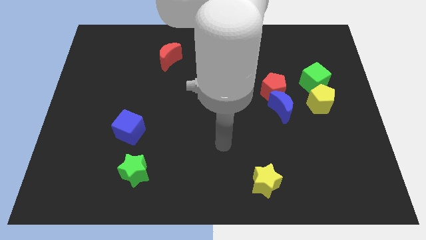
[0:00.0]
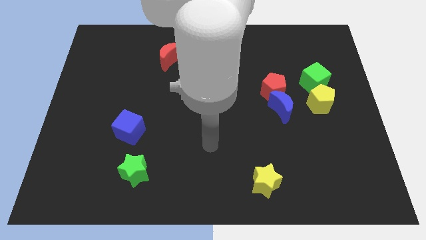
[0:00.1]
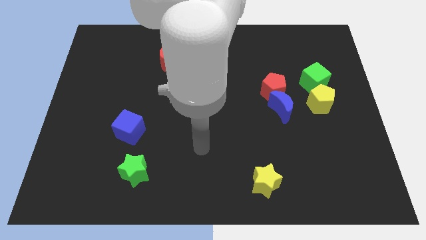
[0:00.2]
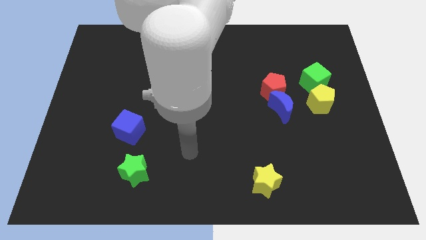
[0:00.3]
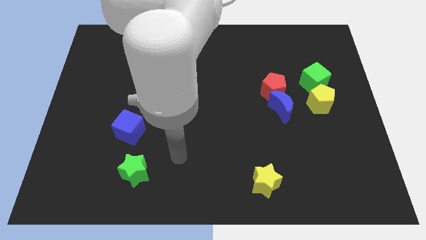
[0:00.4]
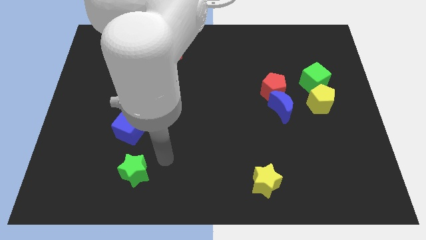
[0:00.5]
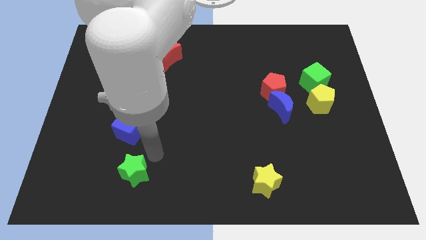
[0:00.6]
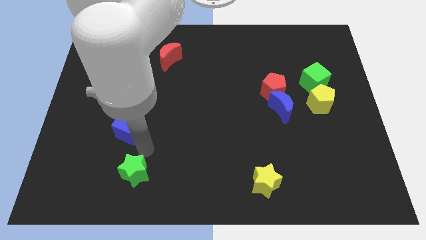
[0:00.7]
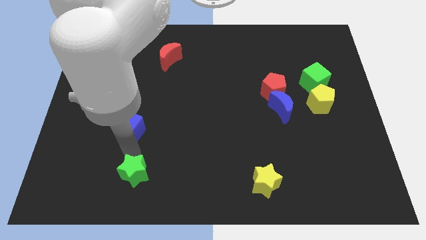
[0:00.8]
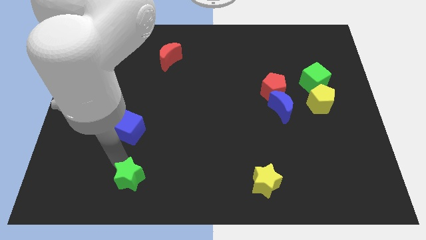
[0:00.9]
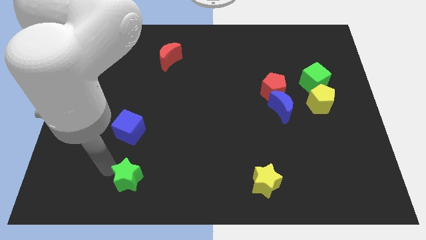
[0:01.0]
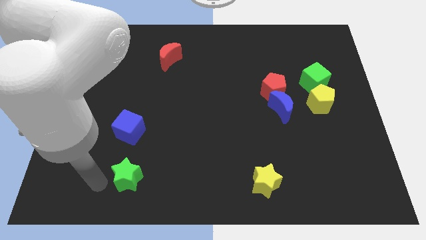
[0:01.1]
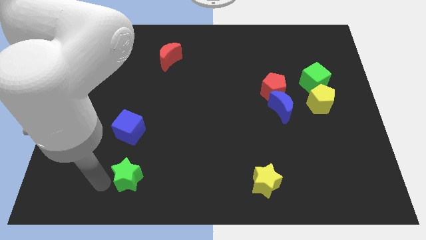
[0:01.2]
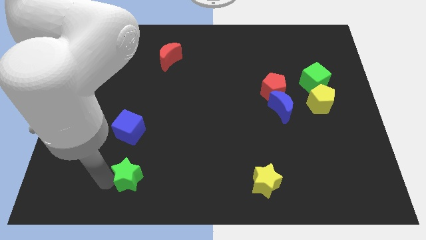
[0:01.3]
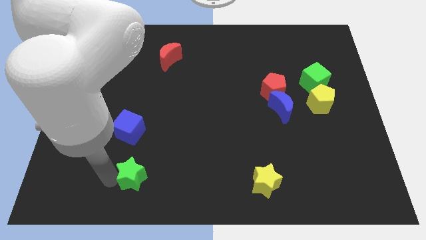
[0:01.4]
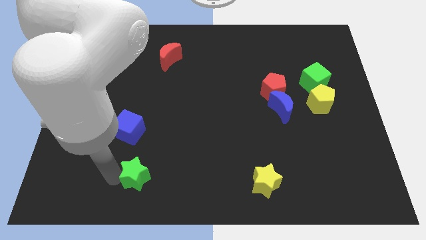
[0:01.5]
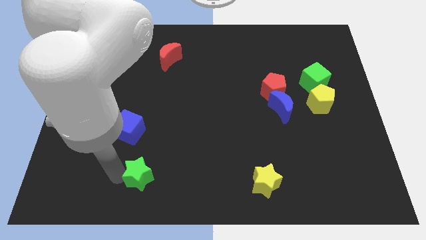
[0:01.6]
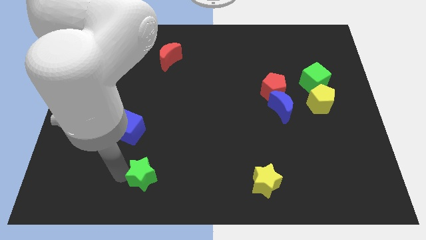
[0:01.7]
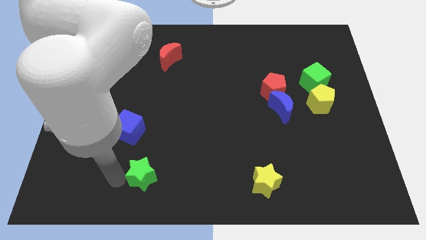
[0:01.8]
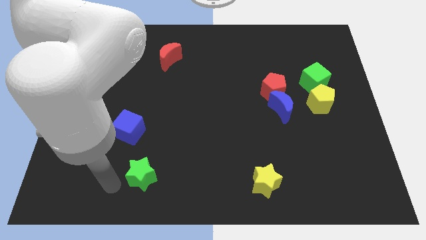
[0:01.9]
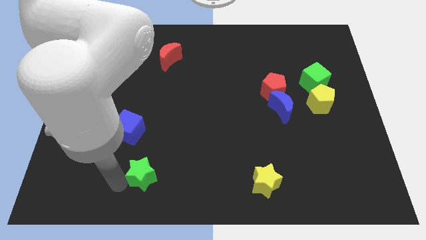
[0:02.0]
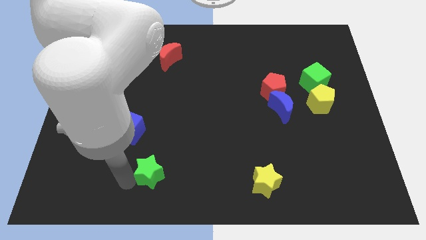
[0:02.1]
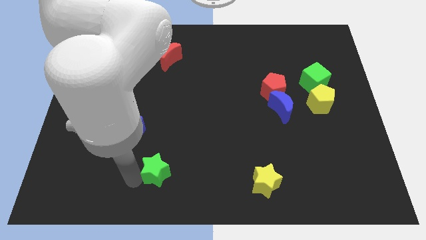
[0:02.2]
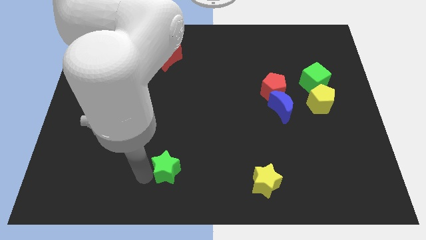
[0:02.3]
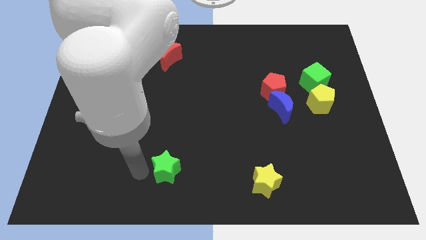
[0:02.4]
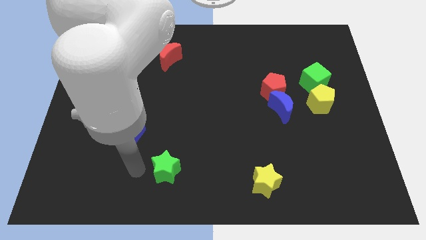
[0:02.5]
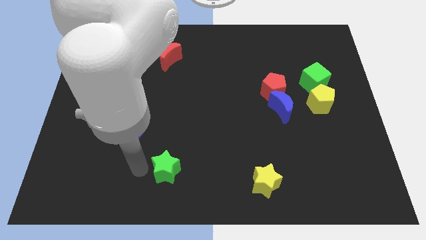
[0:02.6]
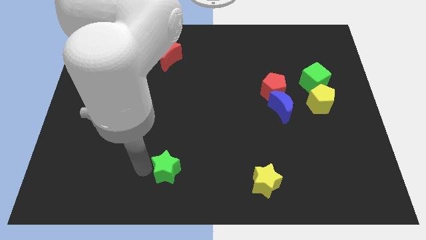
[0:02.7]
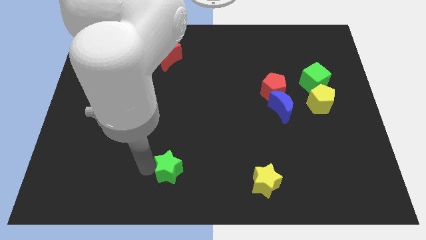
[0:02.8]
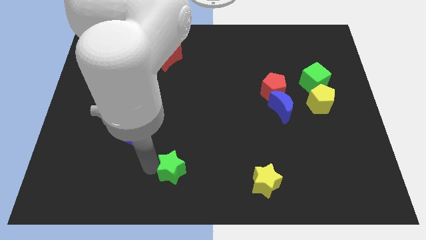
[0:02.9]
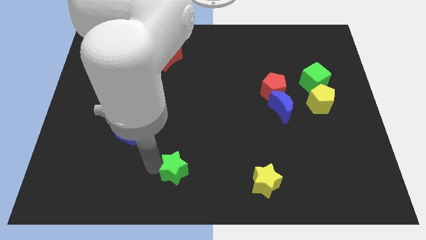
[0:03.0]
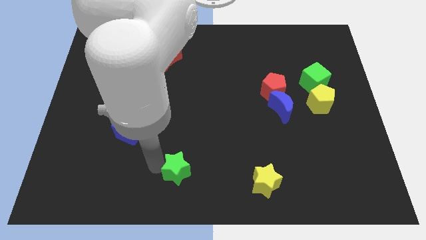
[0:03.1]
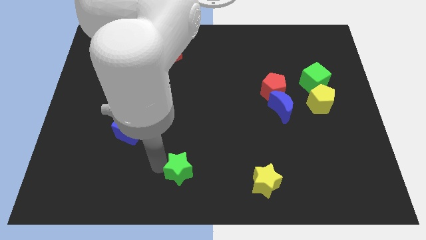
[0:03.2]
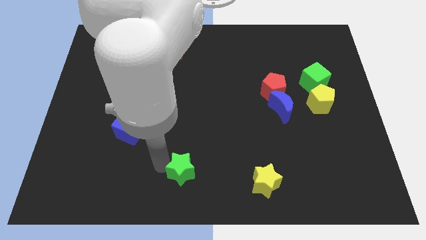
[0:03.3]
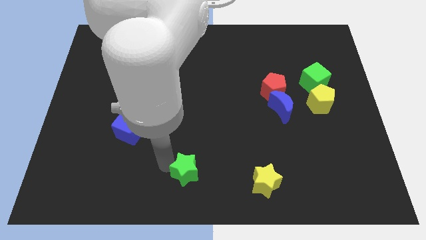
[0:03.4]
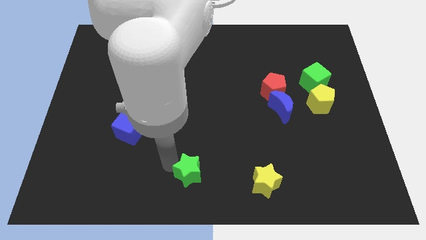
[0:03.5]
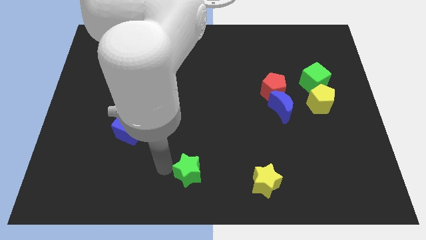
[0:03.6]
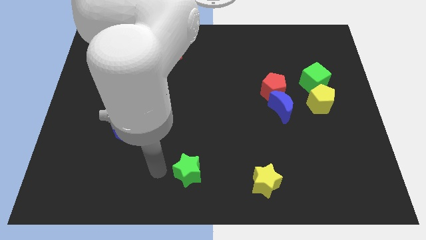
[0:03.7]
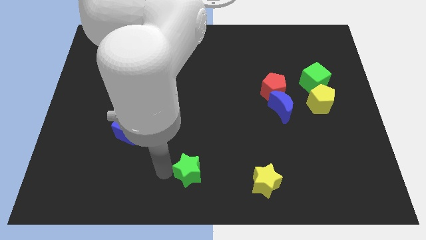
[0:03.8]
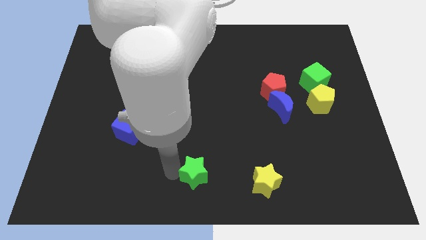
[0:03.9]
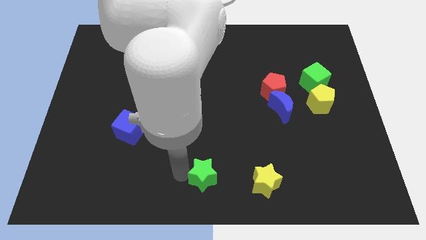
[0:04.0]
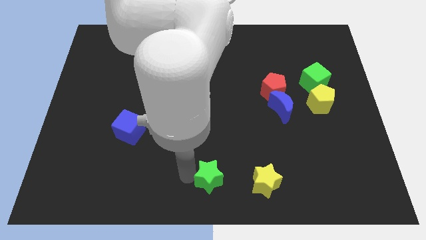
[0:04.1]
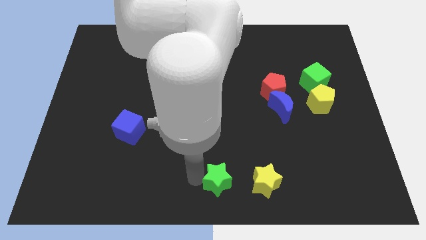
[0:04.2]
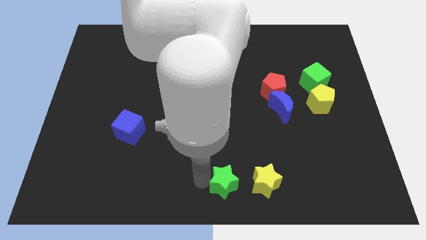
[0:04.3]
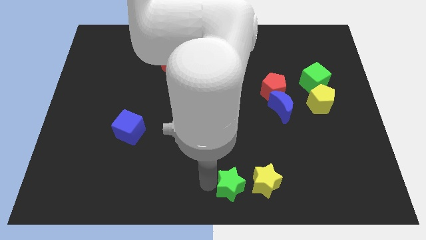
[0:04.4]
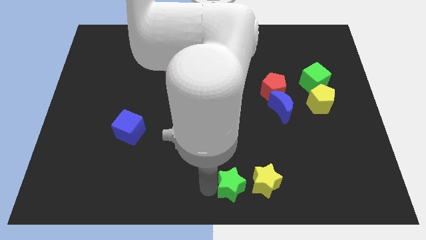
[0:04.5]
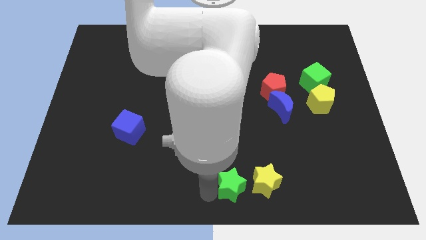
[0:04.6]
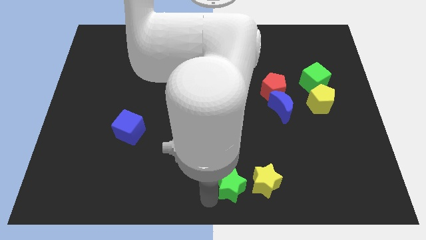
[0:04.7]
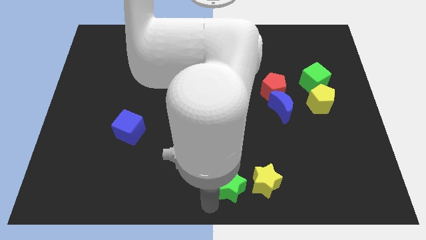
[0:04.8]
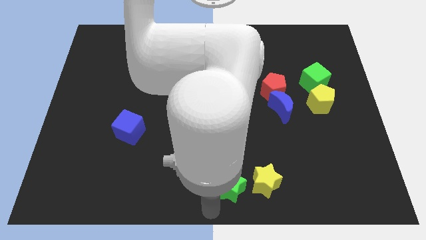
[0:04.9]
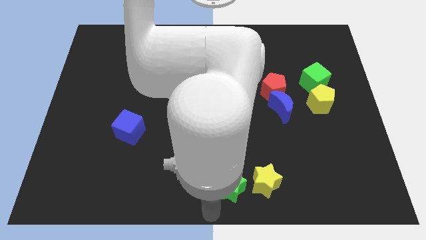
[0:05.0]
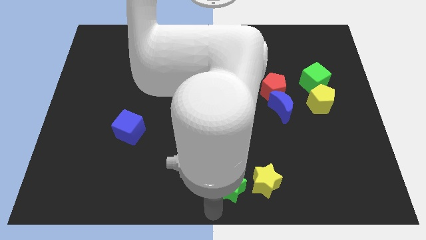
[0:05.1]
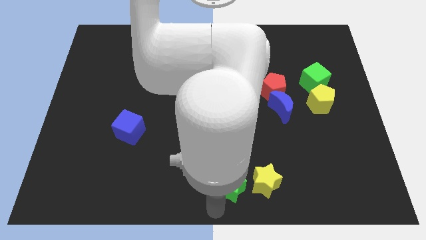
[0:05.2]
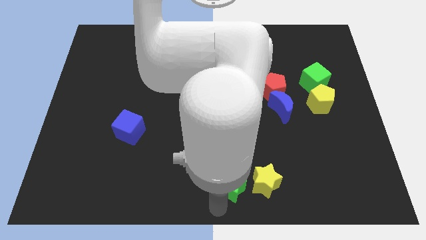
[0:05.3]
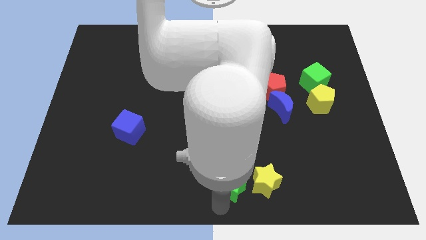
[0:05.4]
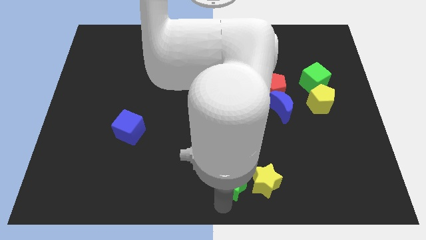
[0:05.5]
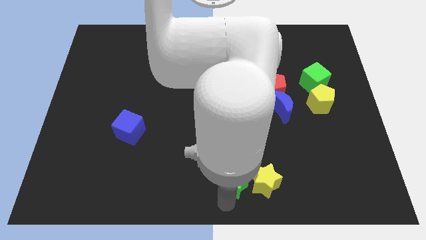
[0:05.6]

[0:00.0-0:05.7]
put the green star close to the yellow star

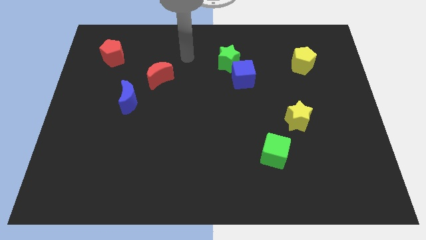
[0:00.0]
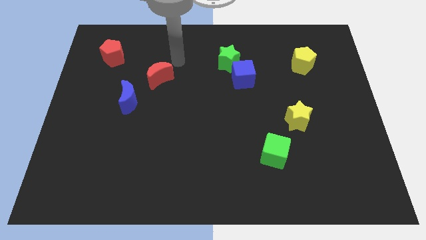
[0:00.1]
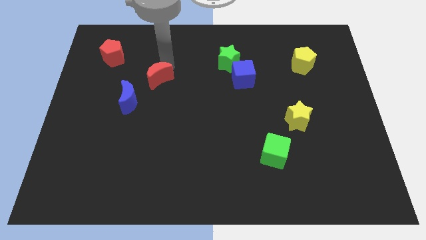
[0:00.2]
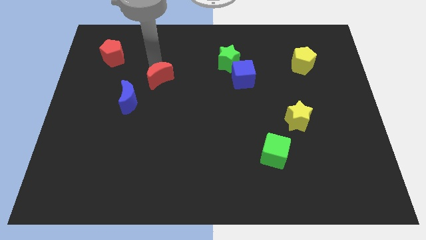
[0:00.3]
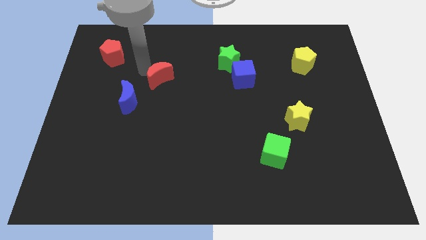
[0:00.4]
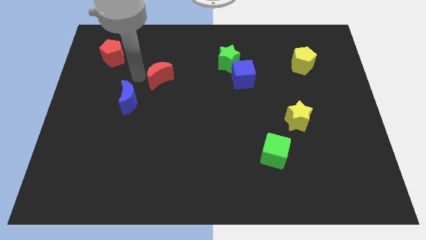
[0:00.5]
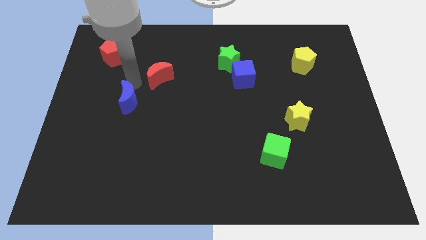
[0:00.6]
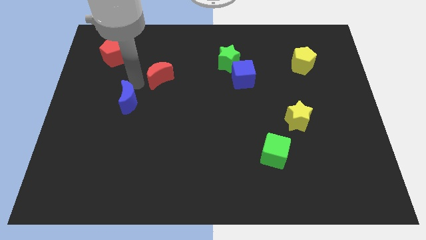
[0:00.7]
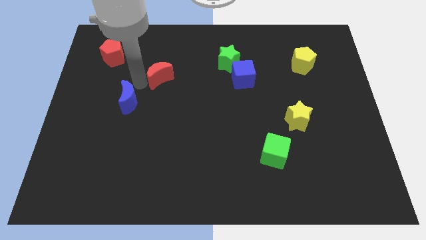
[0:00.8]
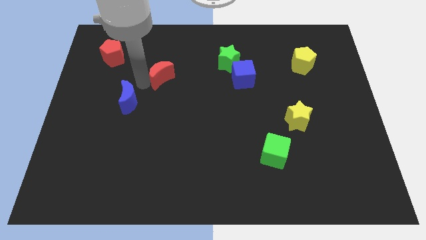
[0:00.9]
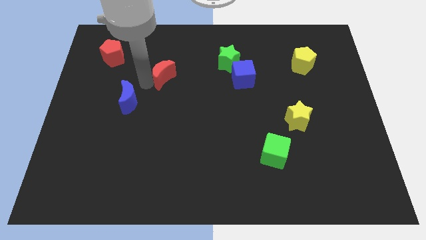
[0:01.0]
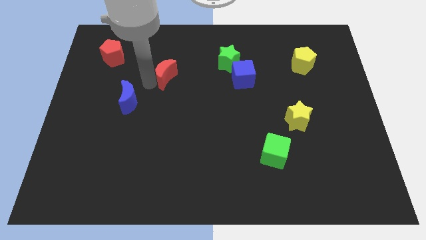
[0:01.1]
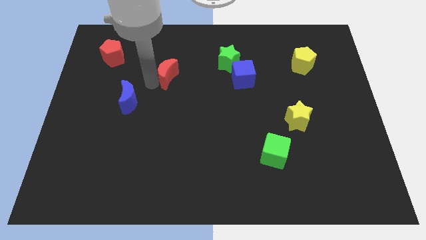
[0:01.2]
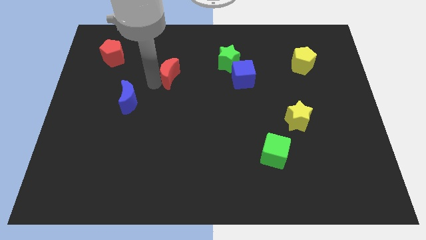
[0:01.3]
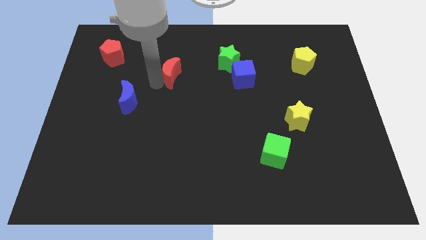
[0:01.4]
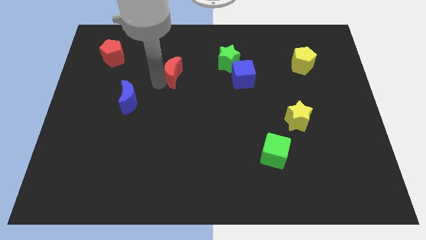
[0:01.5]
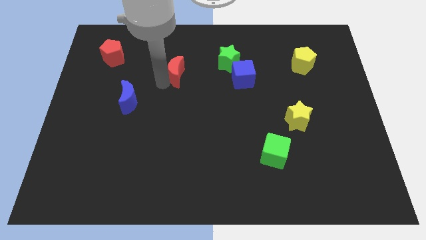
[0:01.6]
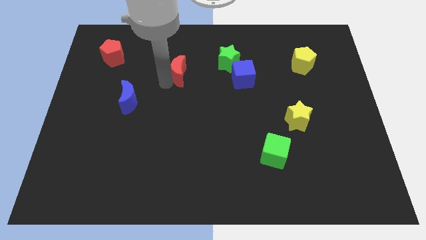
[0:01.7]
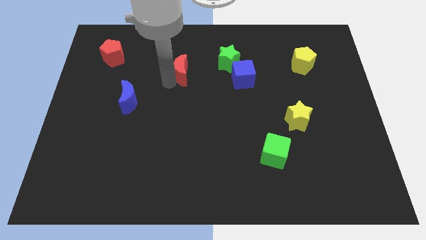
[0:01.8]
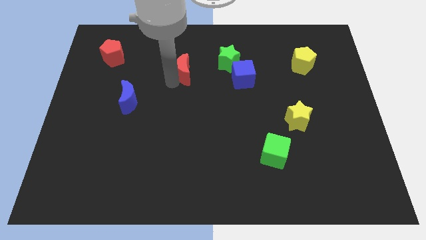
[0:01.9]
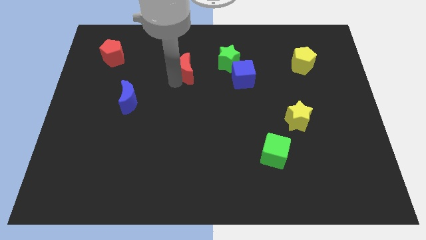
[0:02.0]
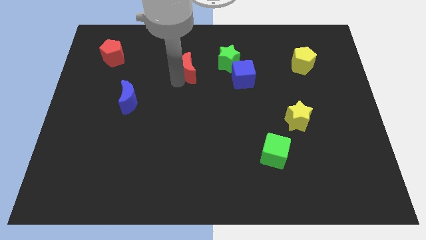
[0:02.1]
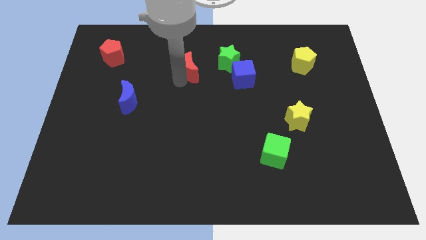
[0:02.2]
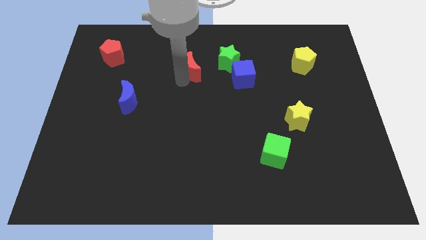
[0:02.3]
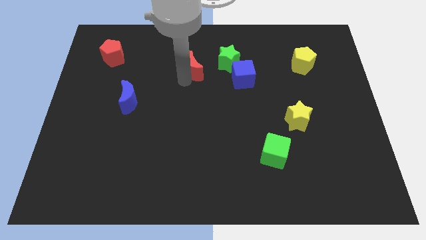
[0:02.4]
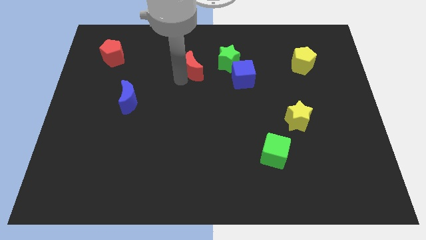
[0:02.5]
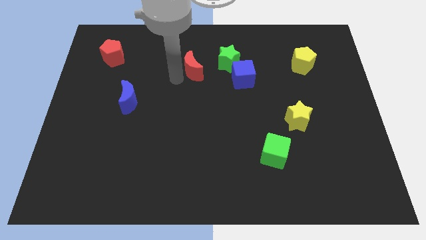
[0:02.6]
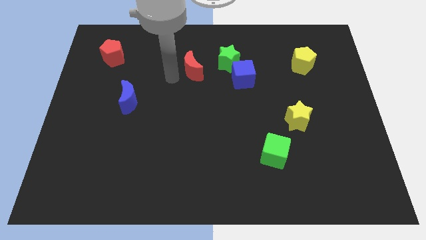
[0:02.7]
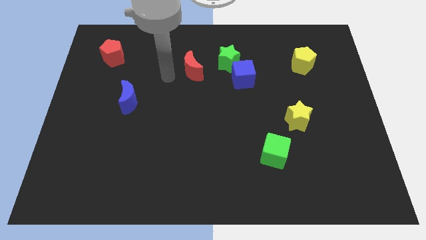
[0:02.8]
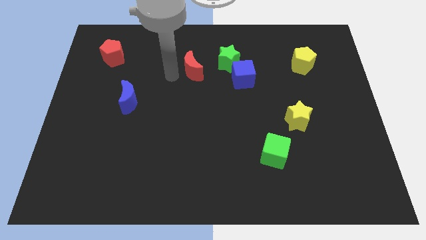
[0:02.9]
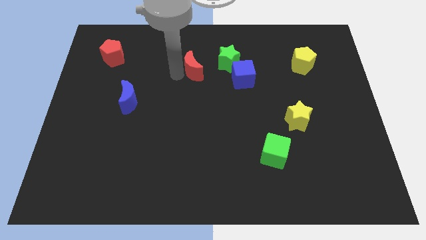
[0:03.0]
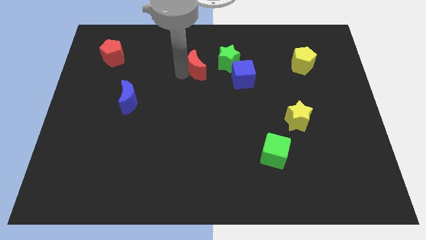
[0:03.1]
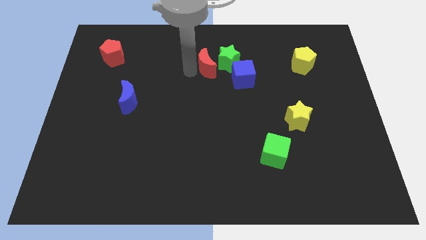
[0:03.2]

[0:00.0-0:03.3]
slide the red moon to the green star
